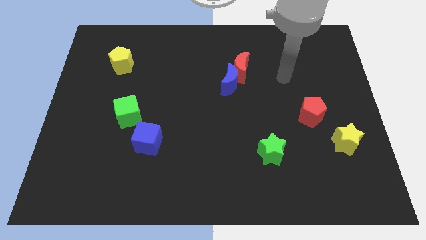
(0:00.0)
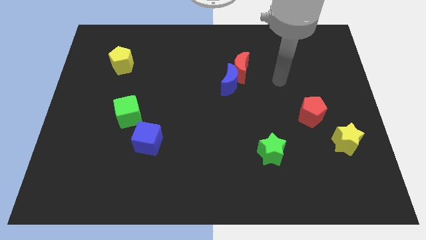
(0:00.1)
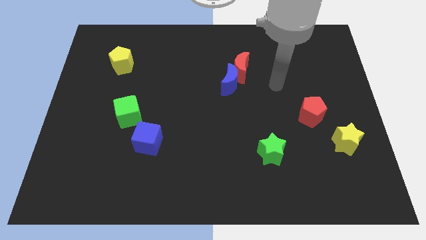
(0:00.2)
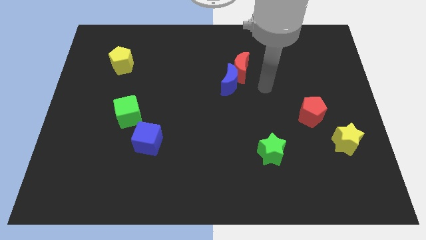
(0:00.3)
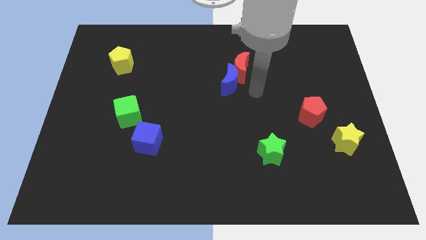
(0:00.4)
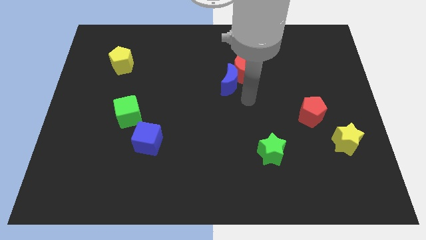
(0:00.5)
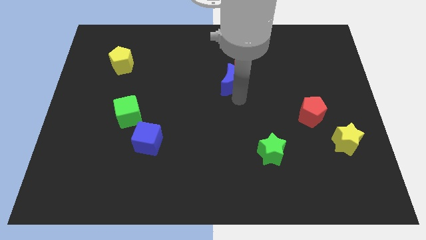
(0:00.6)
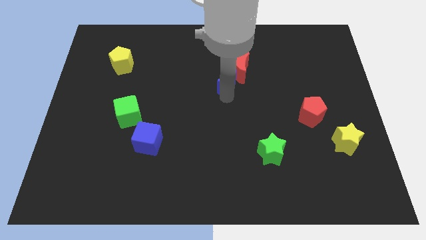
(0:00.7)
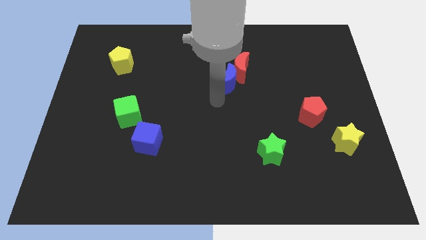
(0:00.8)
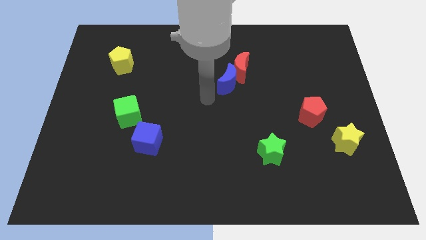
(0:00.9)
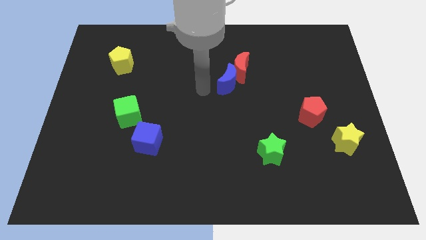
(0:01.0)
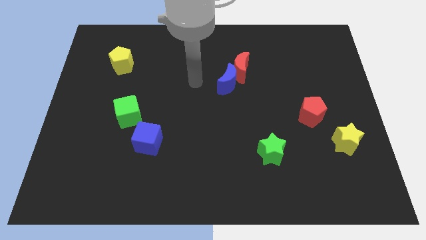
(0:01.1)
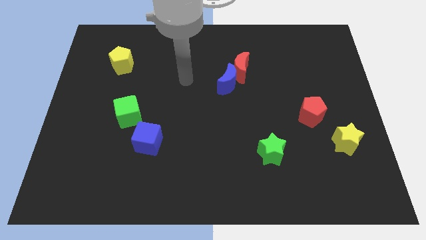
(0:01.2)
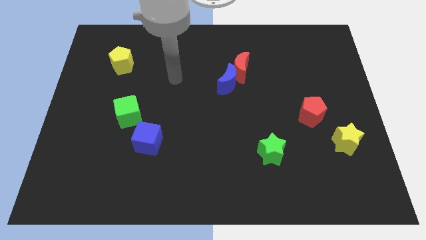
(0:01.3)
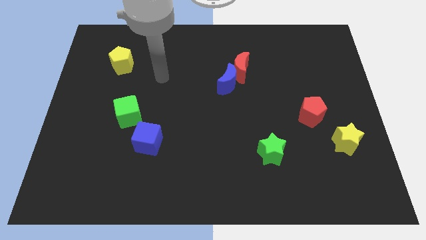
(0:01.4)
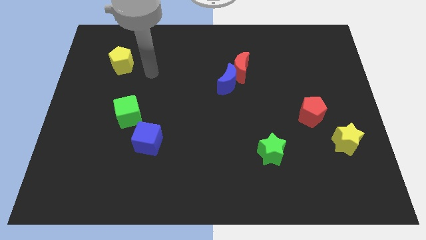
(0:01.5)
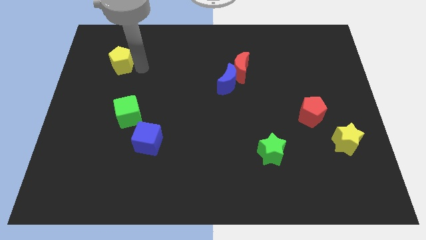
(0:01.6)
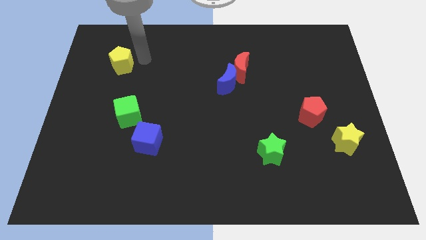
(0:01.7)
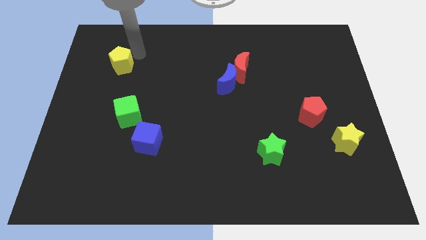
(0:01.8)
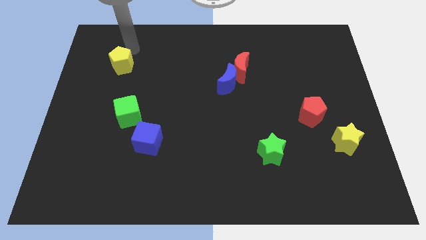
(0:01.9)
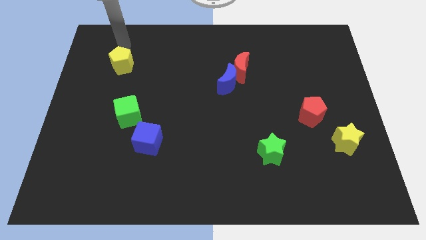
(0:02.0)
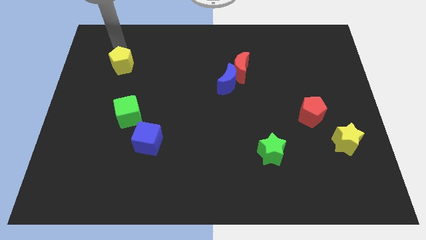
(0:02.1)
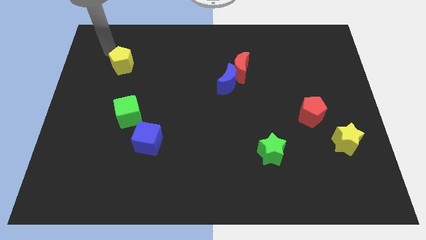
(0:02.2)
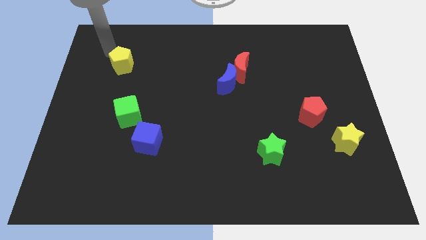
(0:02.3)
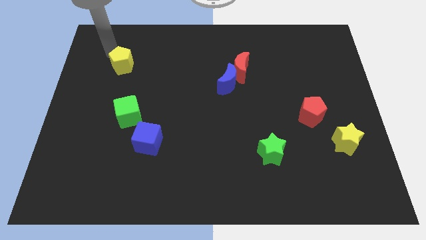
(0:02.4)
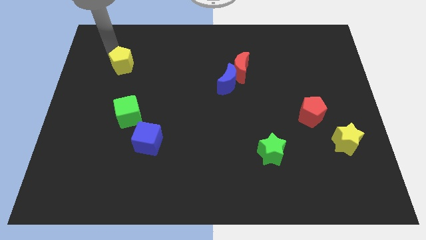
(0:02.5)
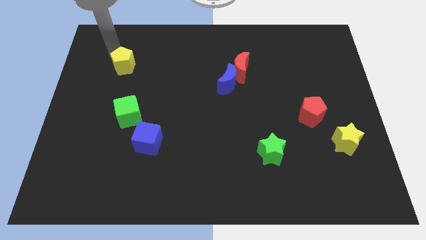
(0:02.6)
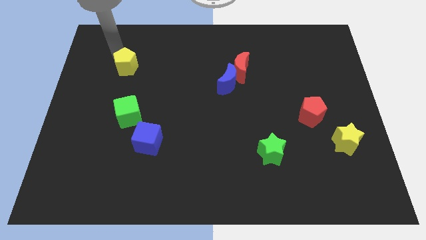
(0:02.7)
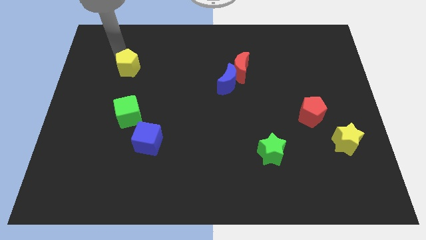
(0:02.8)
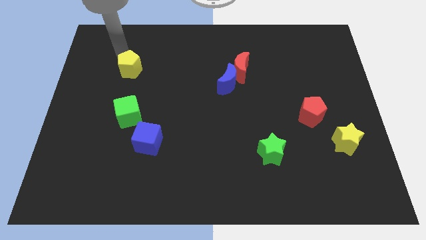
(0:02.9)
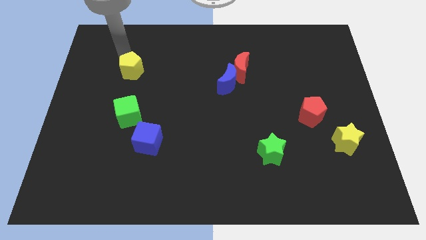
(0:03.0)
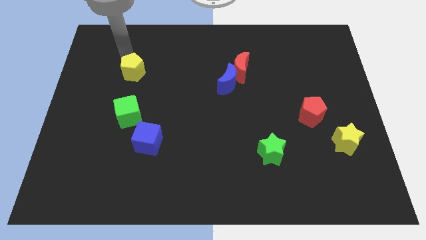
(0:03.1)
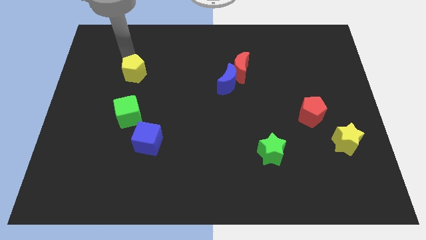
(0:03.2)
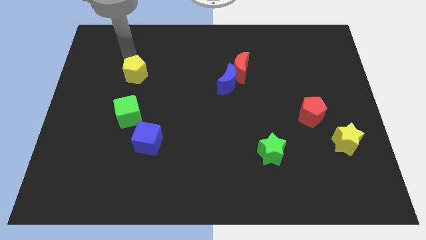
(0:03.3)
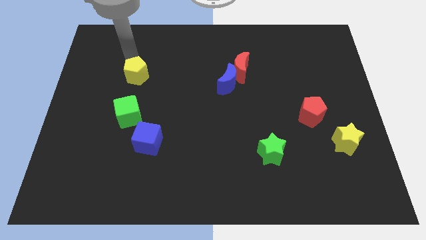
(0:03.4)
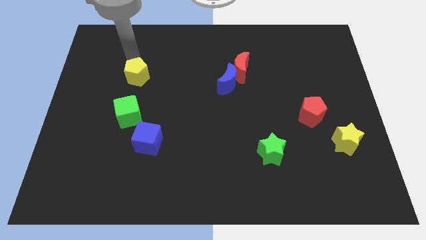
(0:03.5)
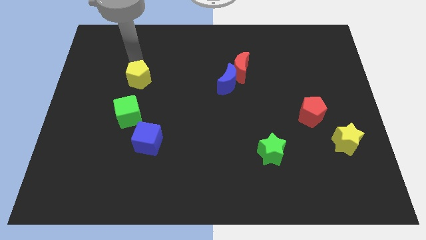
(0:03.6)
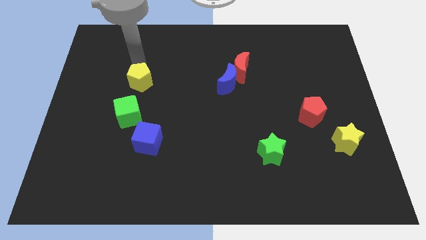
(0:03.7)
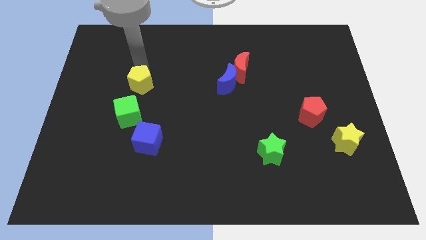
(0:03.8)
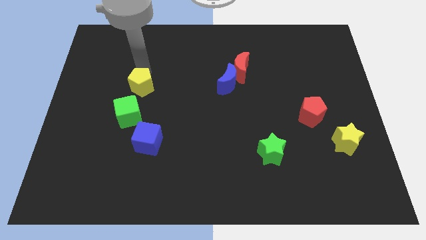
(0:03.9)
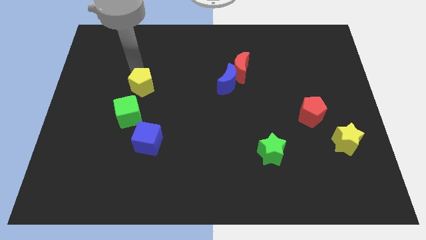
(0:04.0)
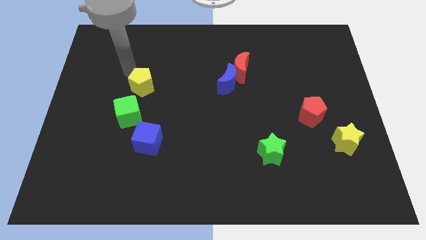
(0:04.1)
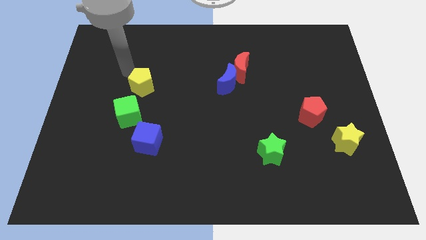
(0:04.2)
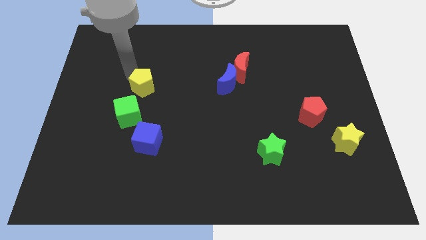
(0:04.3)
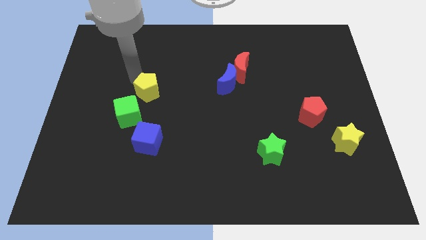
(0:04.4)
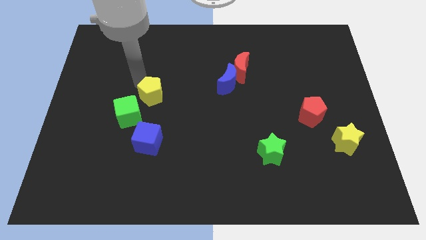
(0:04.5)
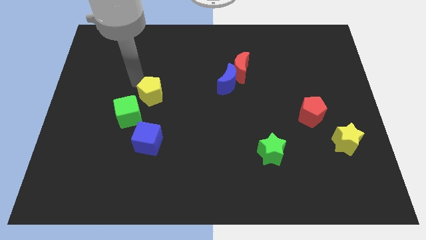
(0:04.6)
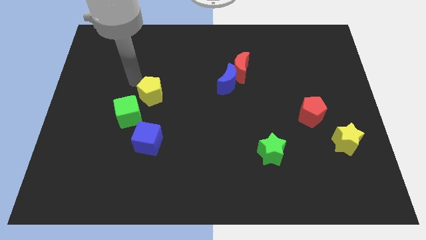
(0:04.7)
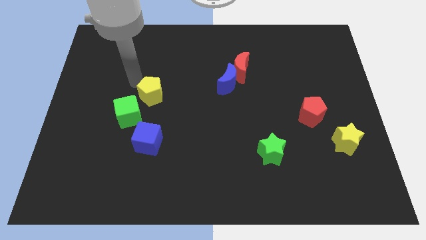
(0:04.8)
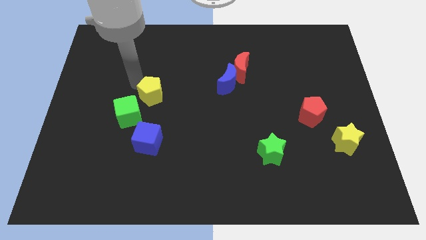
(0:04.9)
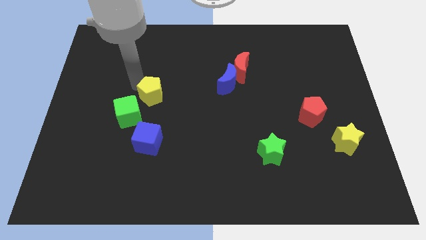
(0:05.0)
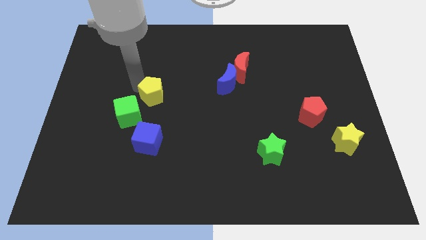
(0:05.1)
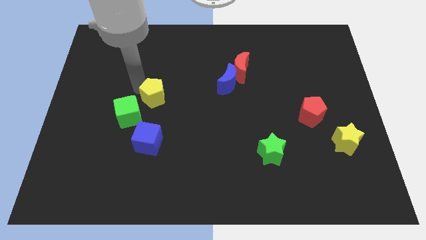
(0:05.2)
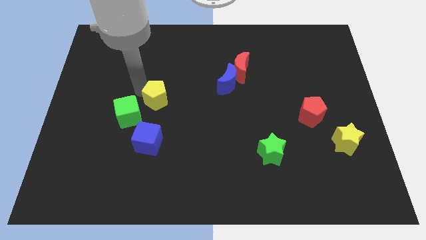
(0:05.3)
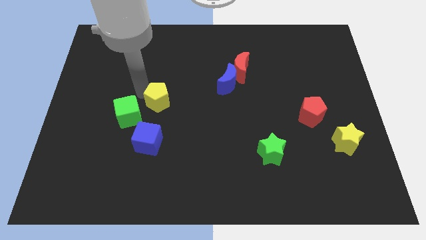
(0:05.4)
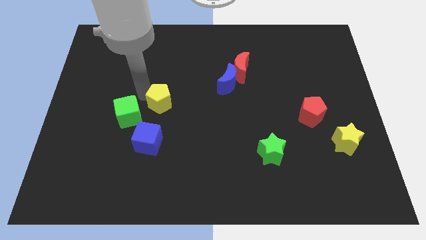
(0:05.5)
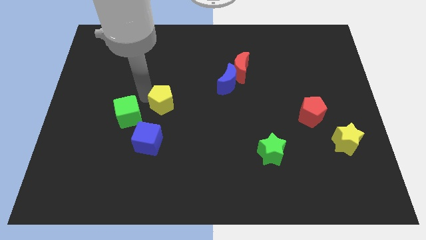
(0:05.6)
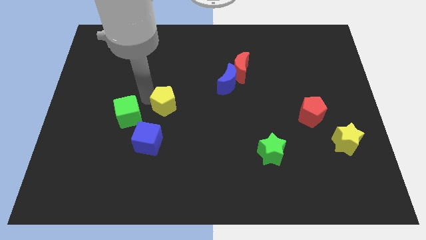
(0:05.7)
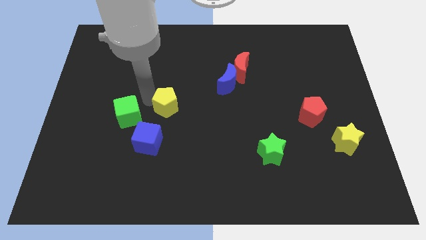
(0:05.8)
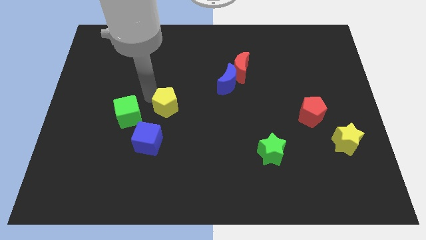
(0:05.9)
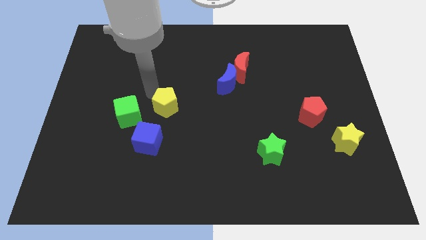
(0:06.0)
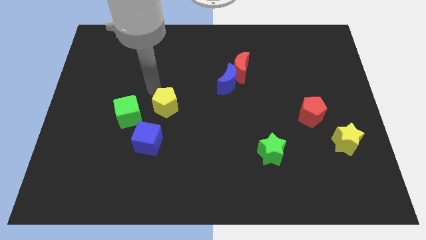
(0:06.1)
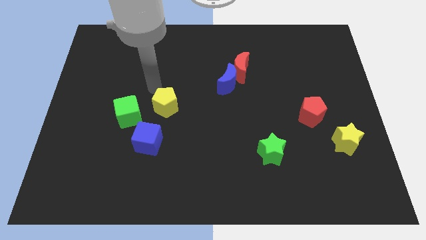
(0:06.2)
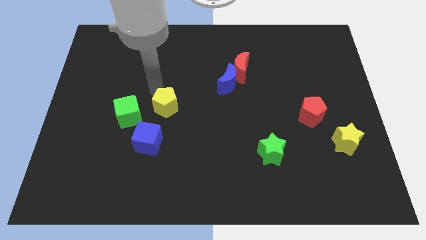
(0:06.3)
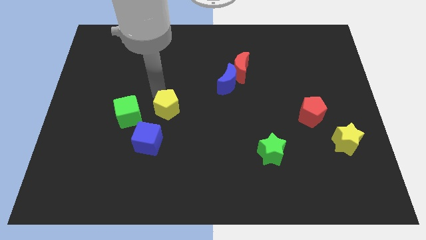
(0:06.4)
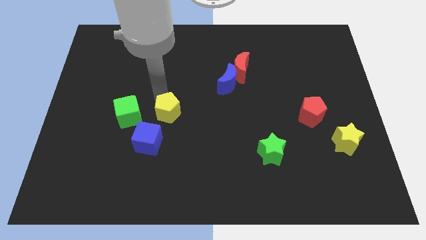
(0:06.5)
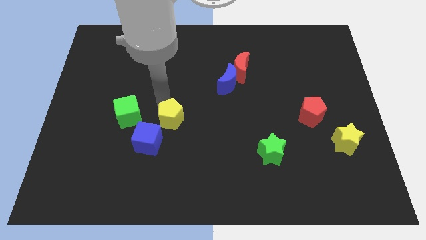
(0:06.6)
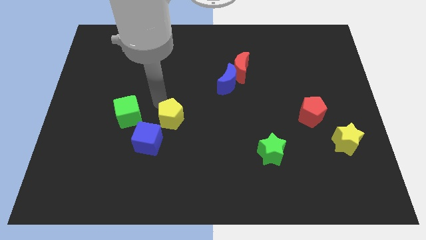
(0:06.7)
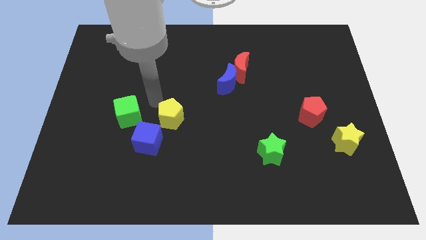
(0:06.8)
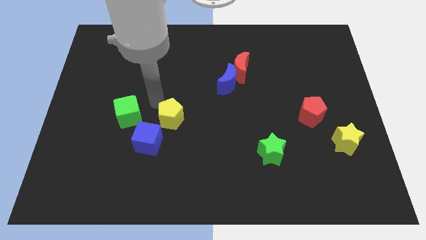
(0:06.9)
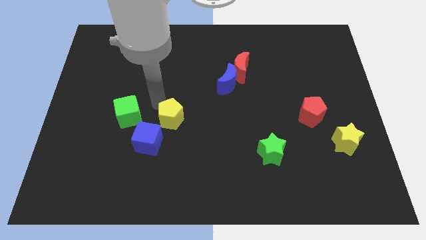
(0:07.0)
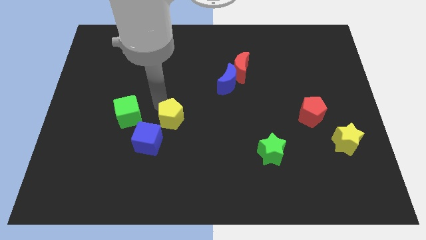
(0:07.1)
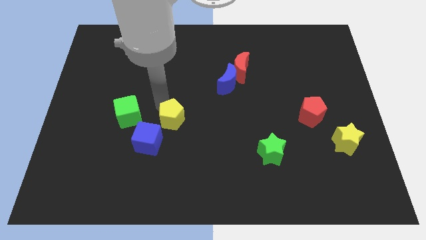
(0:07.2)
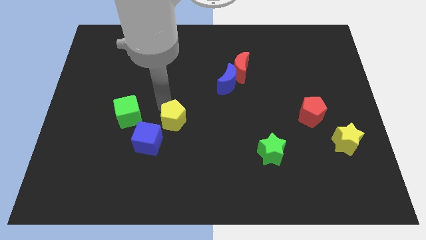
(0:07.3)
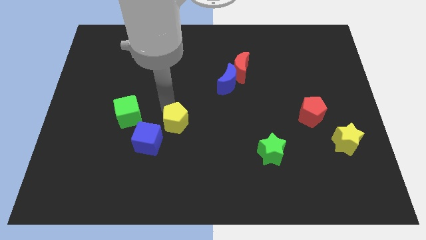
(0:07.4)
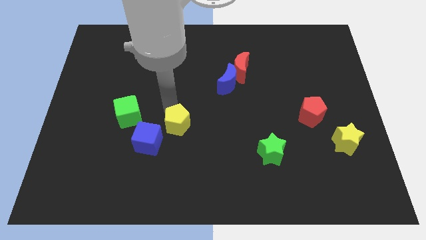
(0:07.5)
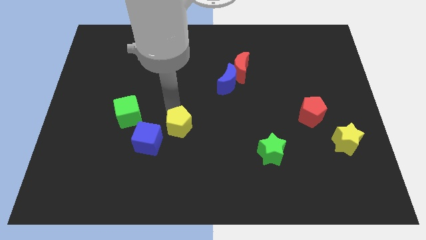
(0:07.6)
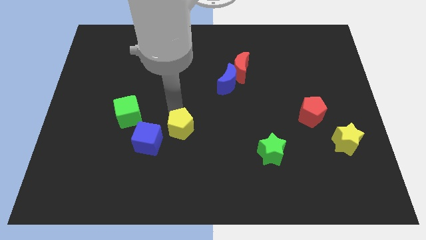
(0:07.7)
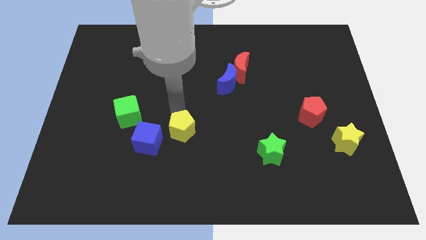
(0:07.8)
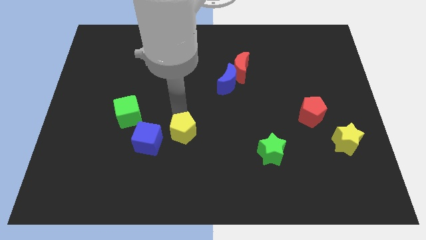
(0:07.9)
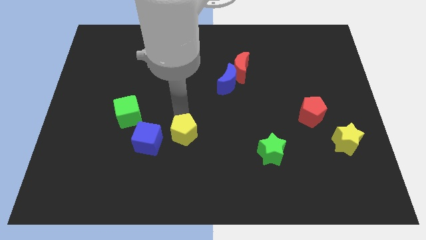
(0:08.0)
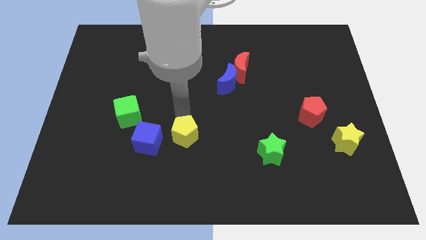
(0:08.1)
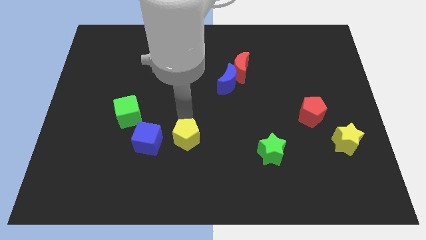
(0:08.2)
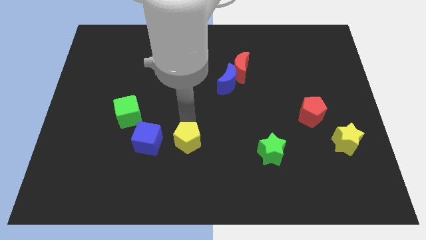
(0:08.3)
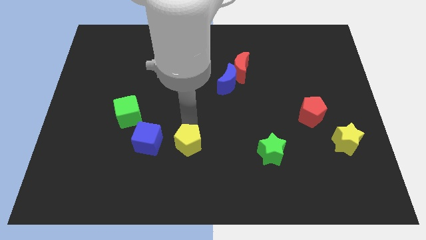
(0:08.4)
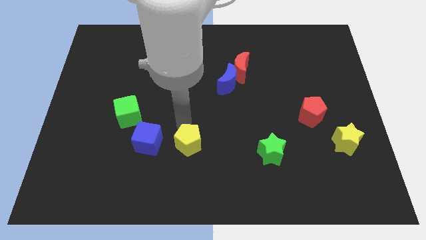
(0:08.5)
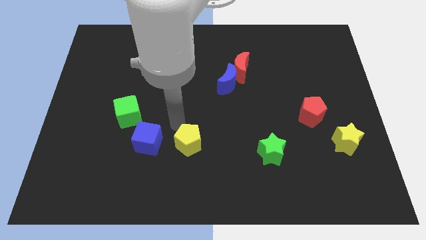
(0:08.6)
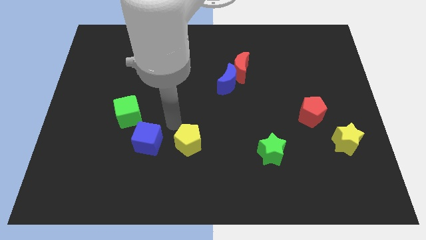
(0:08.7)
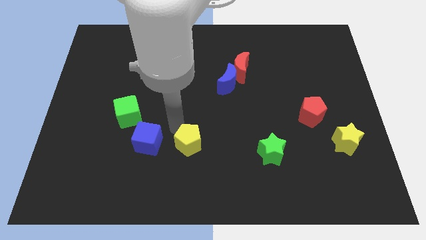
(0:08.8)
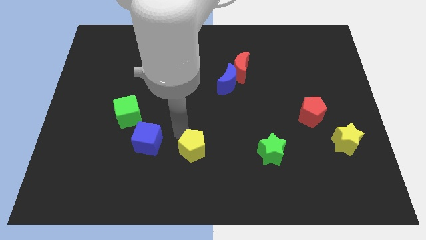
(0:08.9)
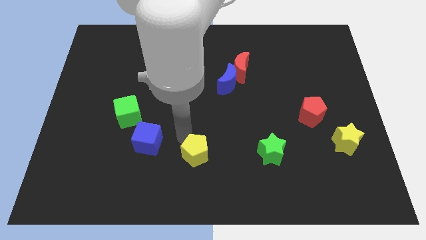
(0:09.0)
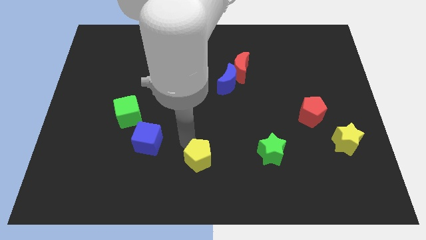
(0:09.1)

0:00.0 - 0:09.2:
push the yellow pentagon to the bottom
